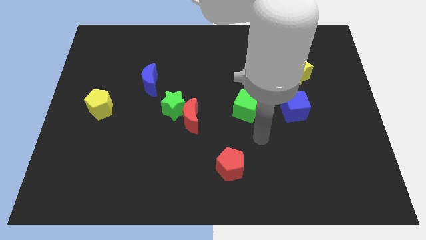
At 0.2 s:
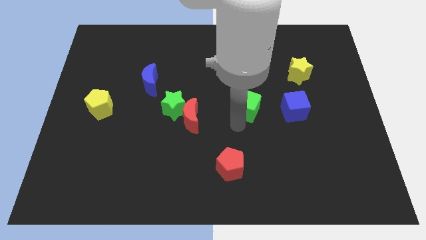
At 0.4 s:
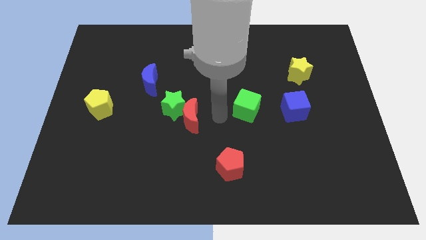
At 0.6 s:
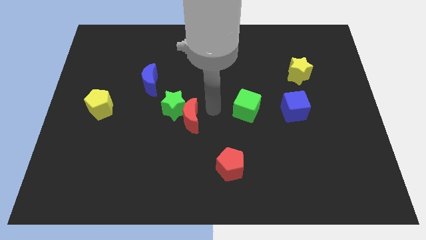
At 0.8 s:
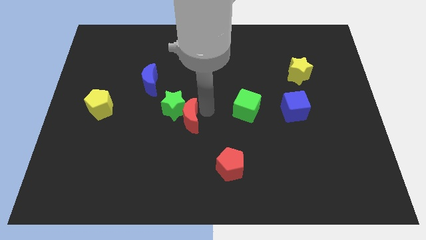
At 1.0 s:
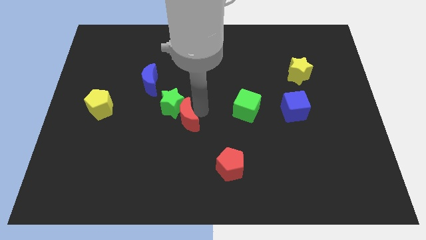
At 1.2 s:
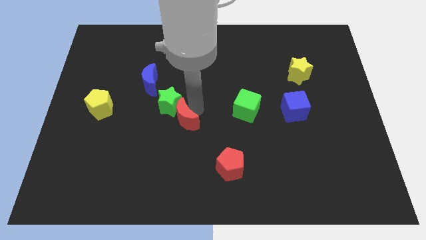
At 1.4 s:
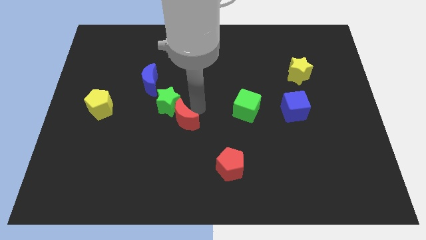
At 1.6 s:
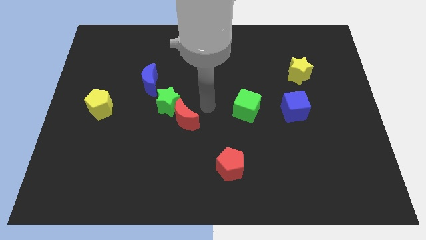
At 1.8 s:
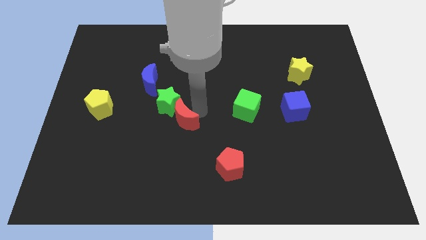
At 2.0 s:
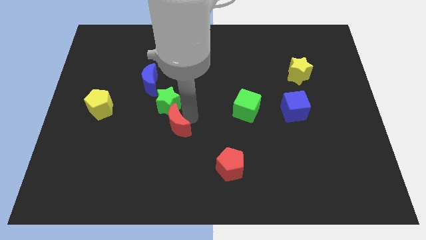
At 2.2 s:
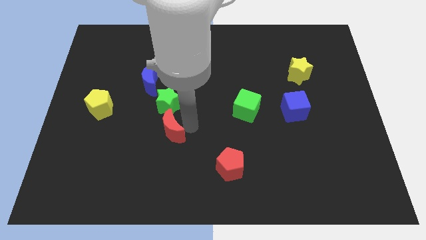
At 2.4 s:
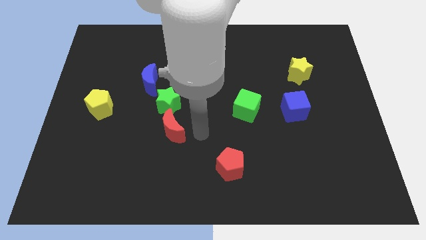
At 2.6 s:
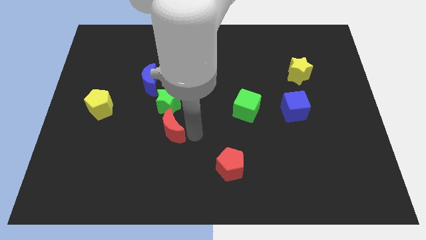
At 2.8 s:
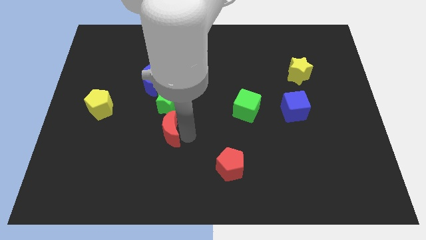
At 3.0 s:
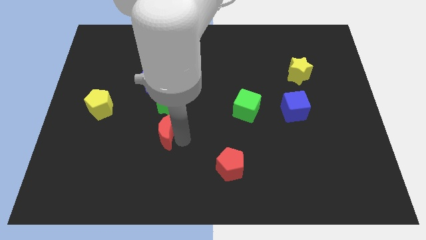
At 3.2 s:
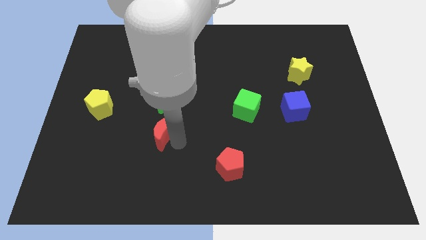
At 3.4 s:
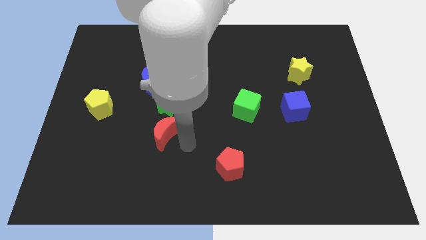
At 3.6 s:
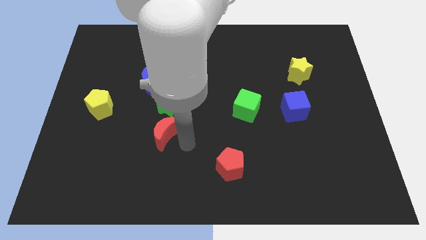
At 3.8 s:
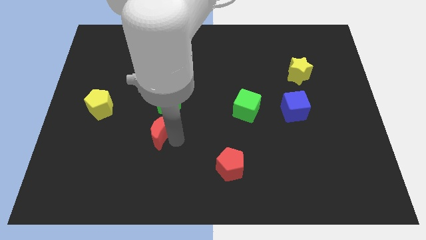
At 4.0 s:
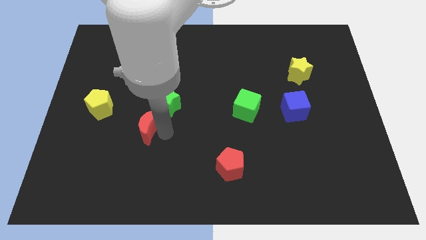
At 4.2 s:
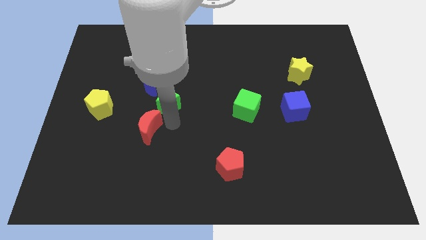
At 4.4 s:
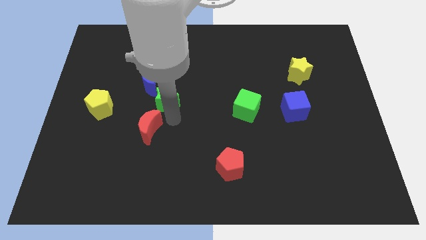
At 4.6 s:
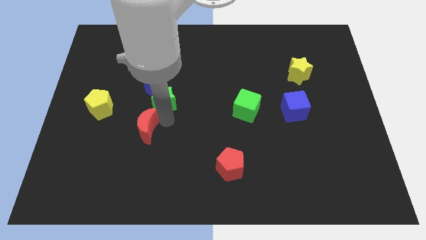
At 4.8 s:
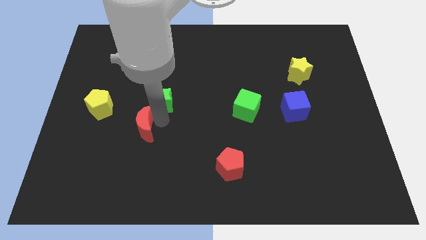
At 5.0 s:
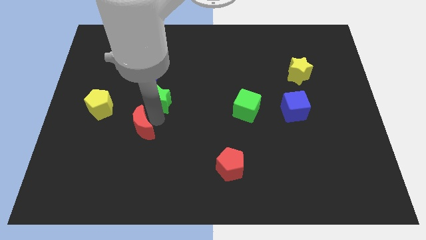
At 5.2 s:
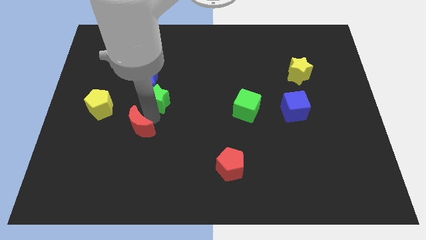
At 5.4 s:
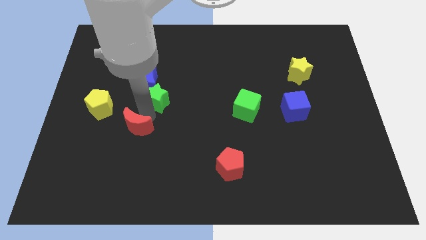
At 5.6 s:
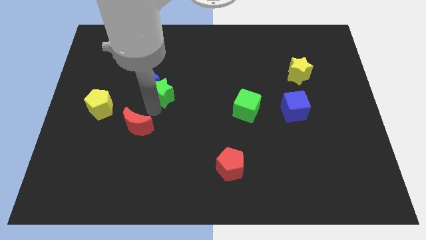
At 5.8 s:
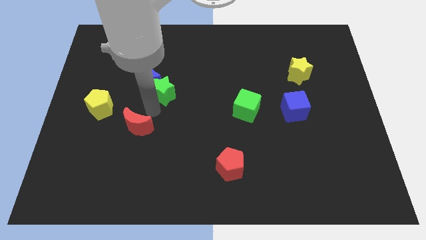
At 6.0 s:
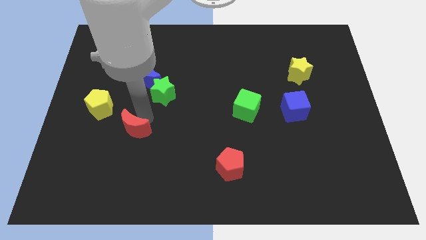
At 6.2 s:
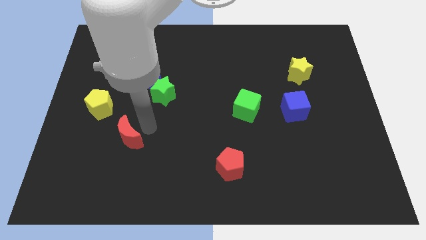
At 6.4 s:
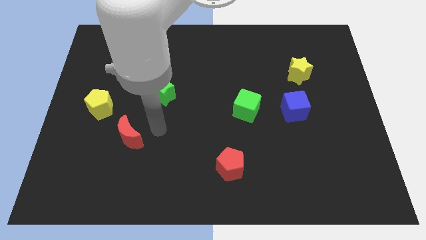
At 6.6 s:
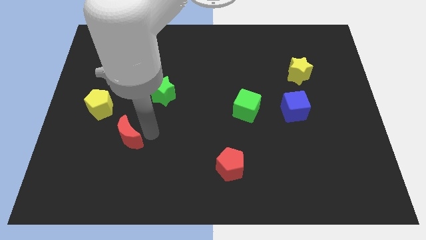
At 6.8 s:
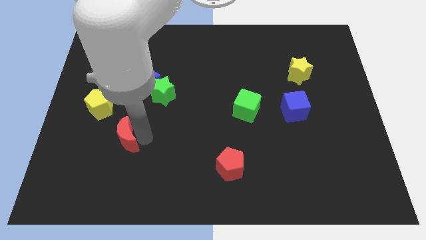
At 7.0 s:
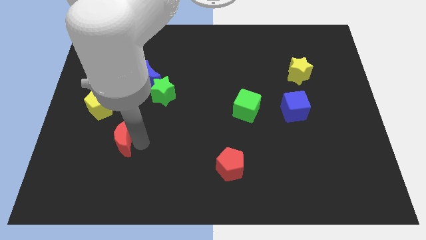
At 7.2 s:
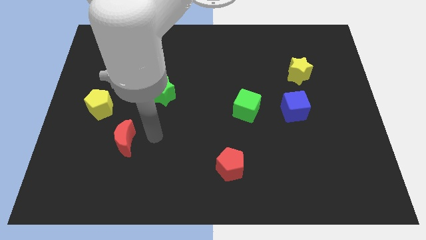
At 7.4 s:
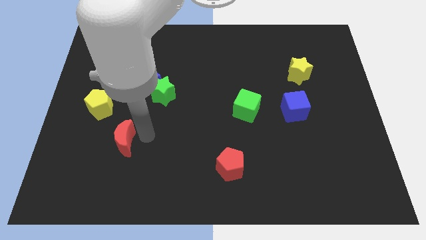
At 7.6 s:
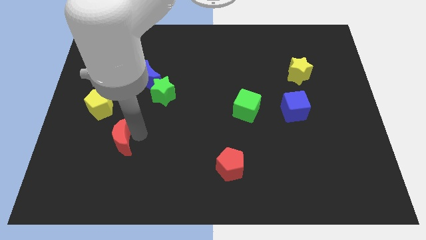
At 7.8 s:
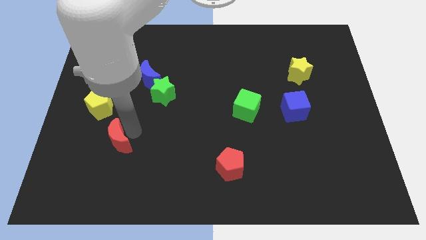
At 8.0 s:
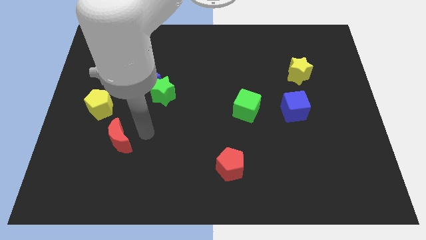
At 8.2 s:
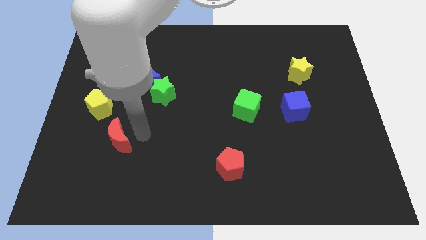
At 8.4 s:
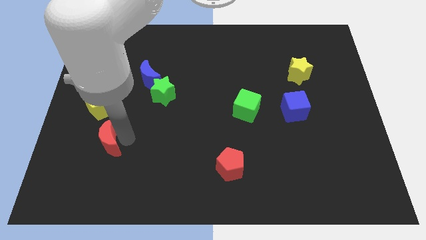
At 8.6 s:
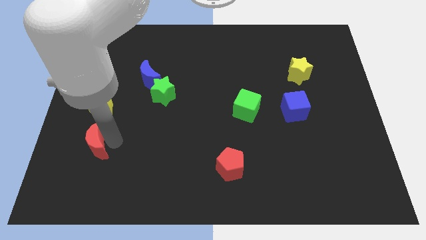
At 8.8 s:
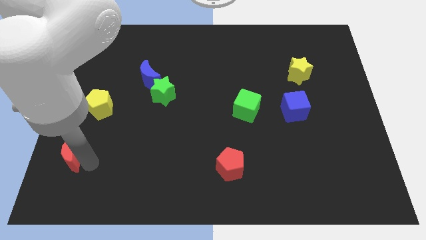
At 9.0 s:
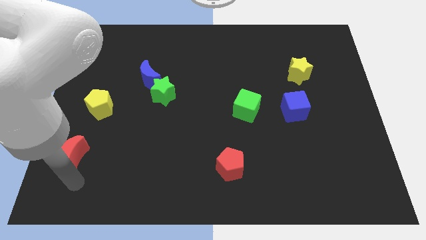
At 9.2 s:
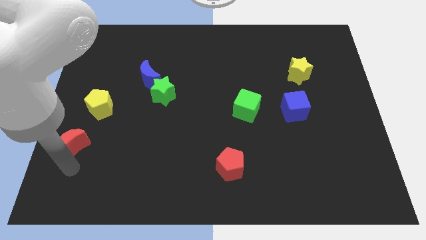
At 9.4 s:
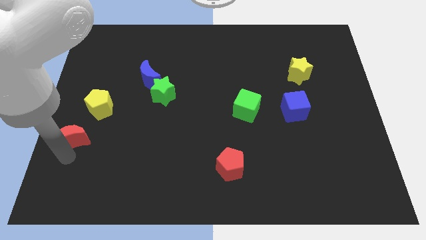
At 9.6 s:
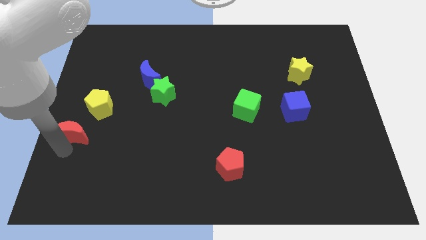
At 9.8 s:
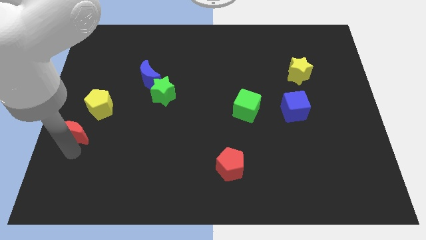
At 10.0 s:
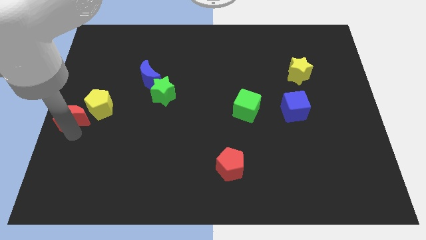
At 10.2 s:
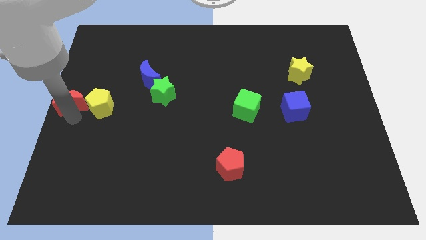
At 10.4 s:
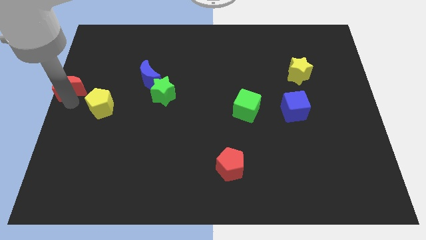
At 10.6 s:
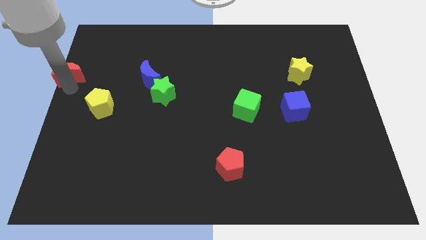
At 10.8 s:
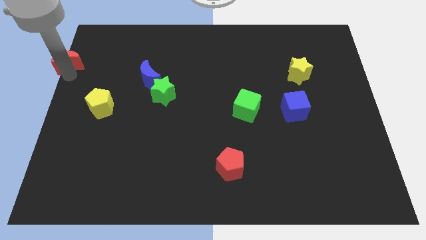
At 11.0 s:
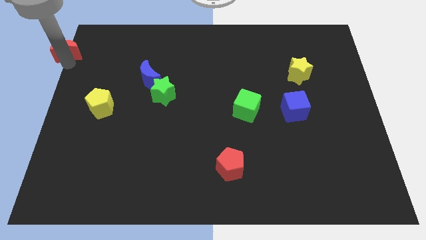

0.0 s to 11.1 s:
push the red moon to the top left corner

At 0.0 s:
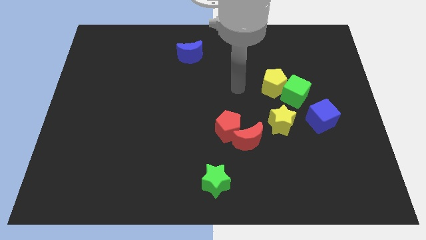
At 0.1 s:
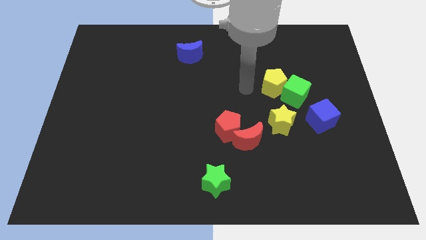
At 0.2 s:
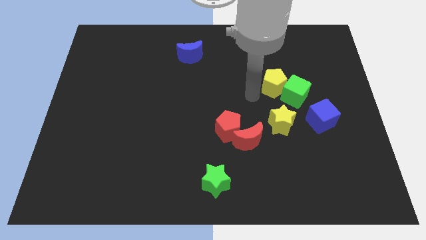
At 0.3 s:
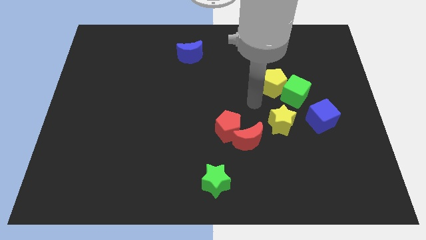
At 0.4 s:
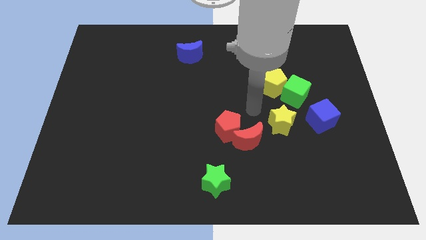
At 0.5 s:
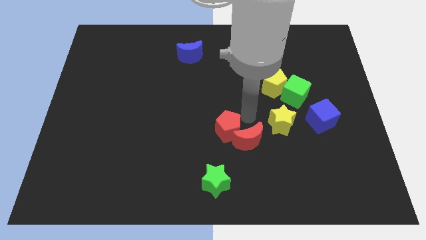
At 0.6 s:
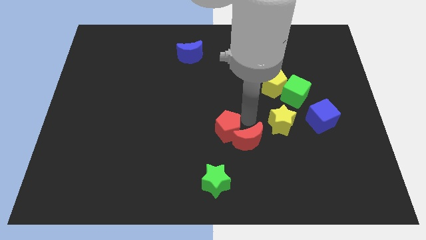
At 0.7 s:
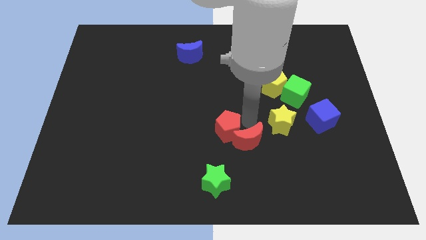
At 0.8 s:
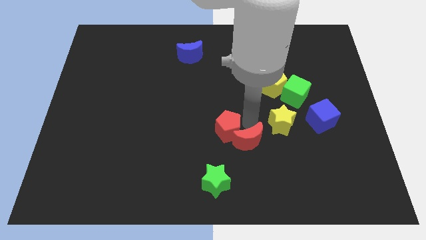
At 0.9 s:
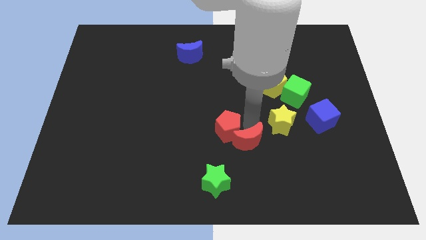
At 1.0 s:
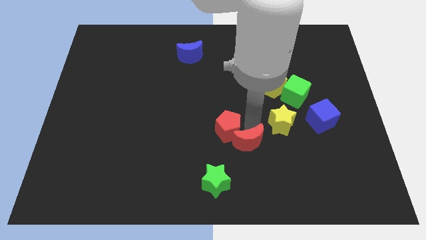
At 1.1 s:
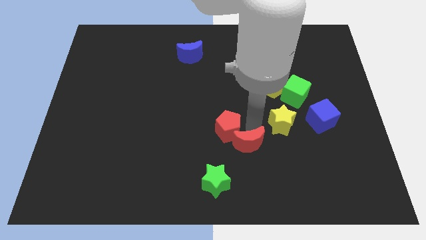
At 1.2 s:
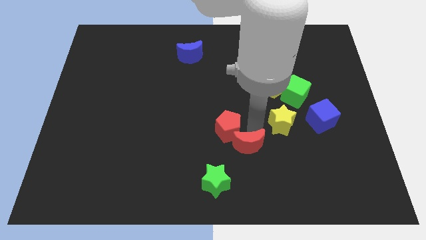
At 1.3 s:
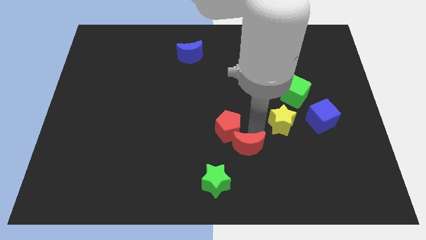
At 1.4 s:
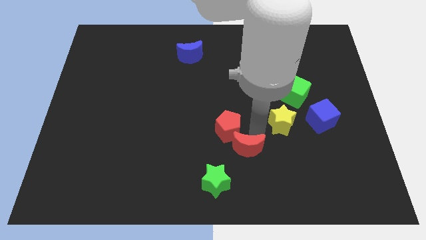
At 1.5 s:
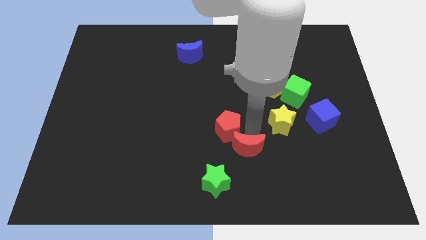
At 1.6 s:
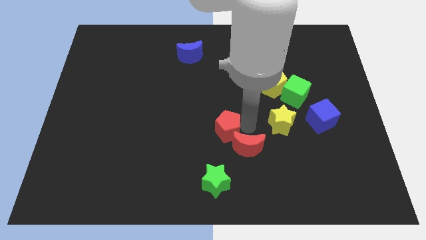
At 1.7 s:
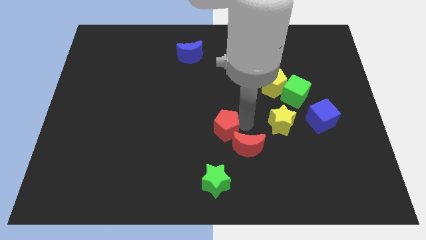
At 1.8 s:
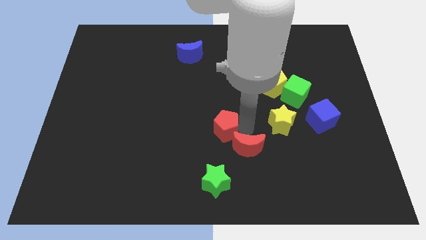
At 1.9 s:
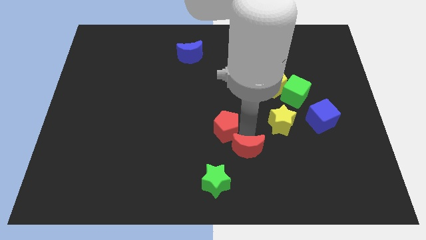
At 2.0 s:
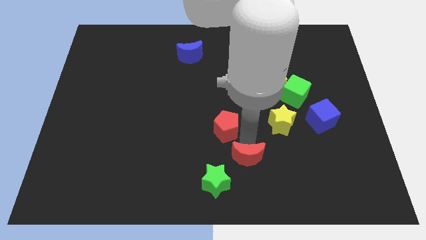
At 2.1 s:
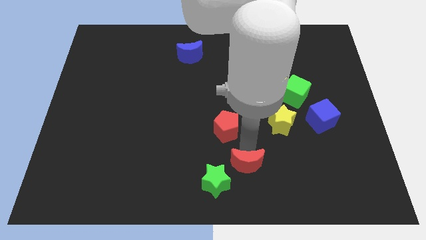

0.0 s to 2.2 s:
slide the red moon to the bottom side
